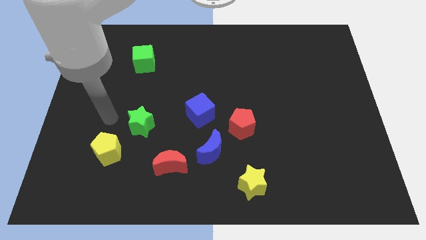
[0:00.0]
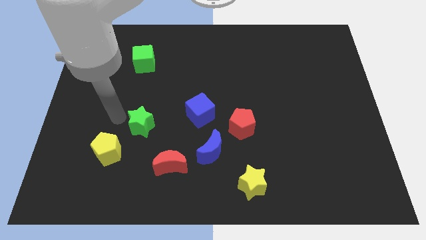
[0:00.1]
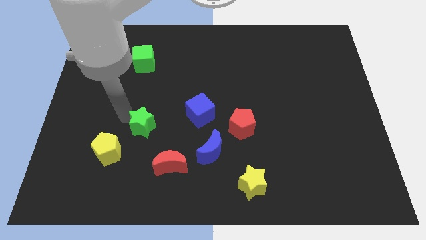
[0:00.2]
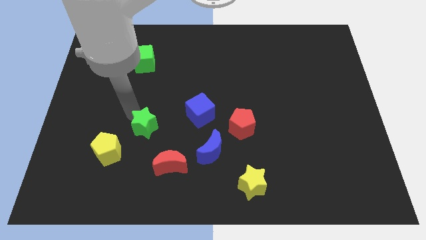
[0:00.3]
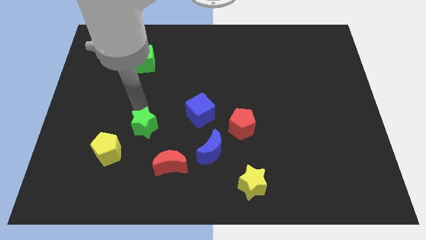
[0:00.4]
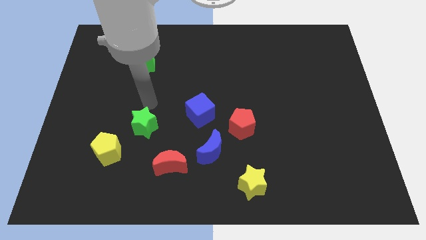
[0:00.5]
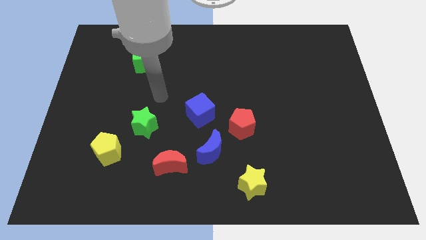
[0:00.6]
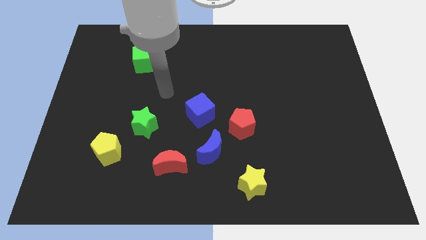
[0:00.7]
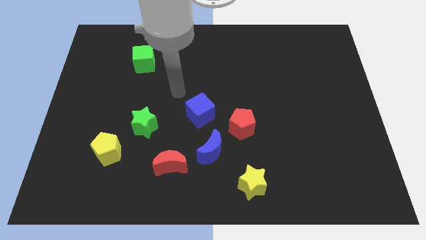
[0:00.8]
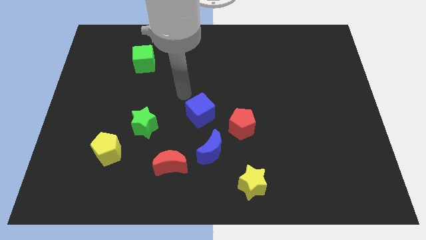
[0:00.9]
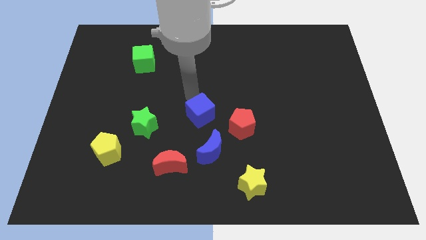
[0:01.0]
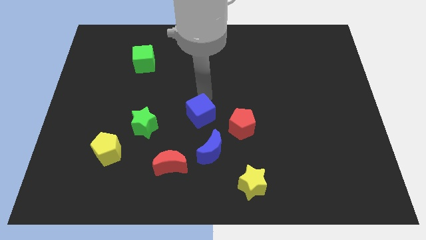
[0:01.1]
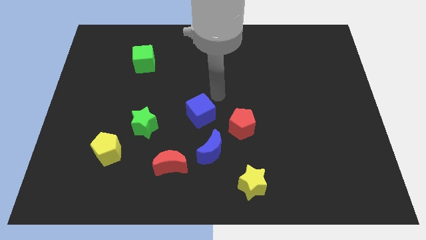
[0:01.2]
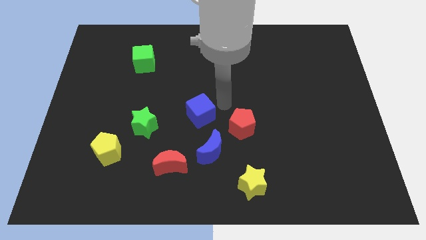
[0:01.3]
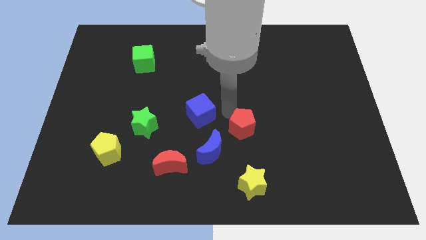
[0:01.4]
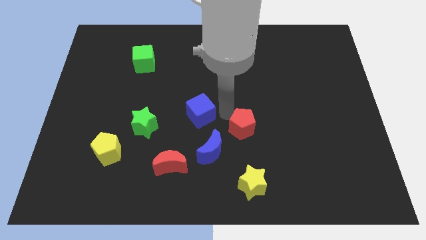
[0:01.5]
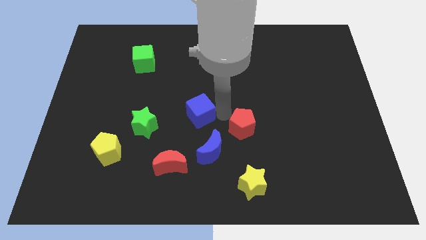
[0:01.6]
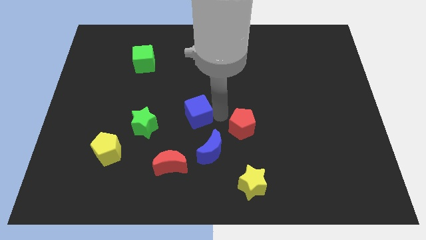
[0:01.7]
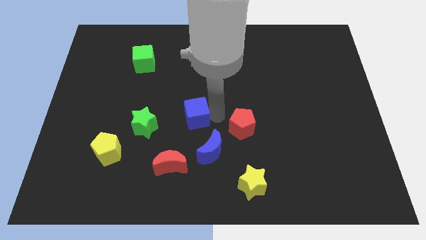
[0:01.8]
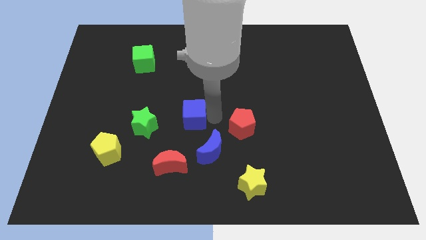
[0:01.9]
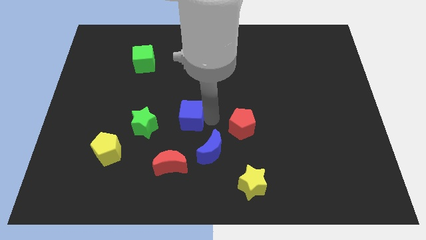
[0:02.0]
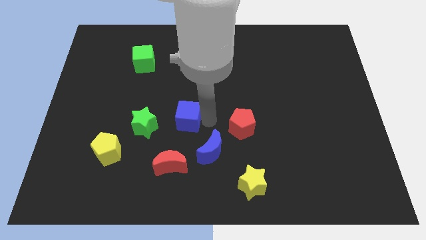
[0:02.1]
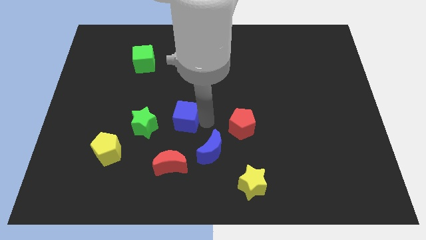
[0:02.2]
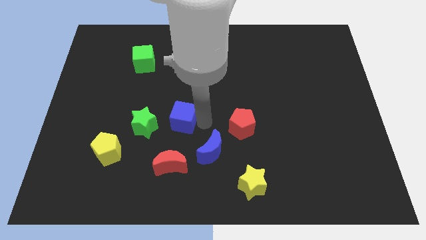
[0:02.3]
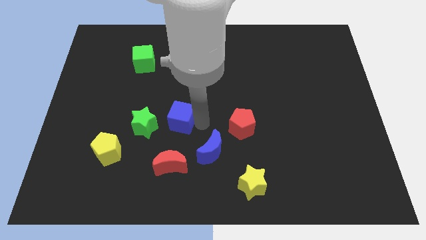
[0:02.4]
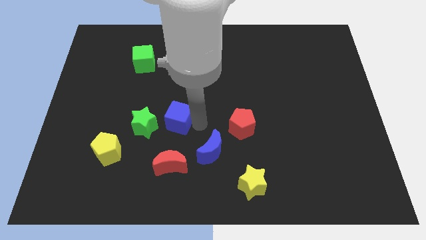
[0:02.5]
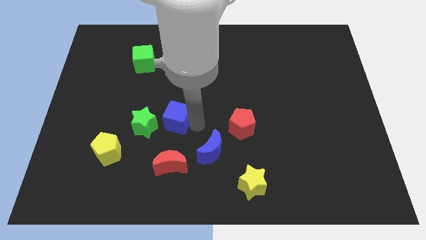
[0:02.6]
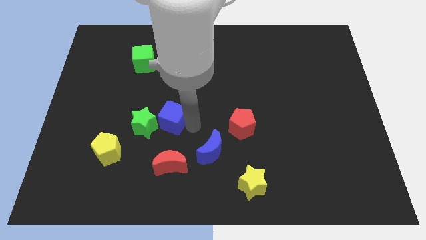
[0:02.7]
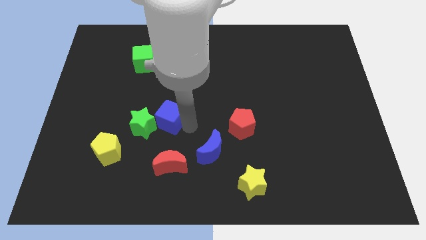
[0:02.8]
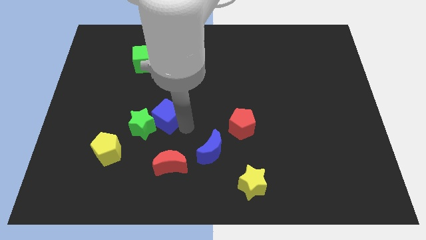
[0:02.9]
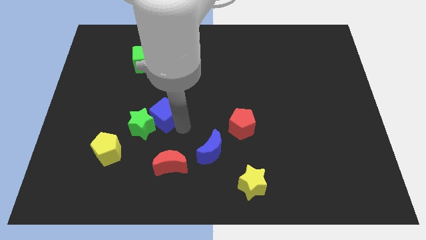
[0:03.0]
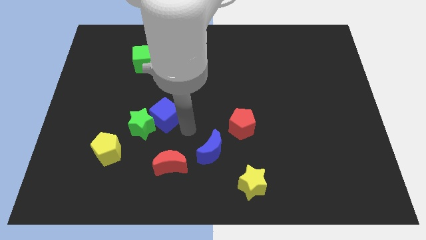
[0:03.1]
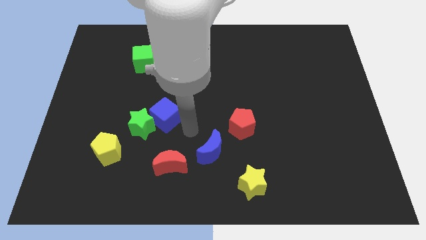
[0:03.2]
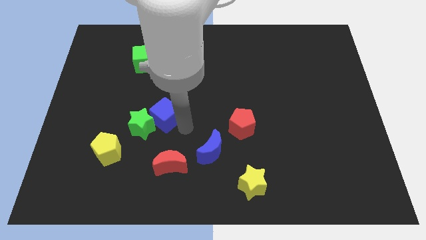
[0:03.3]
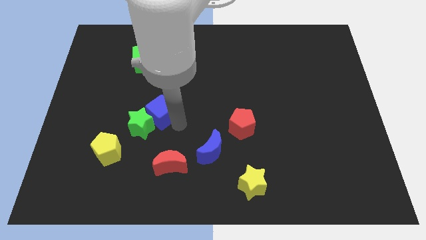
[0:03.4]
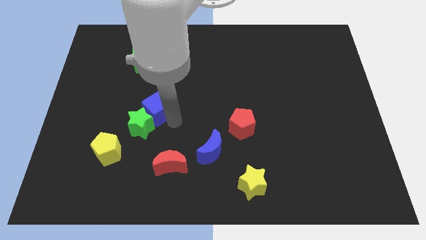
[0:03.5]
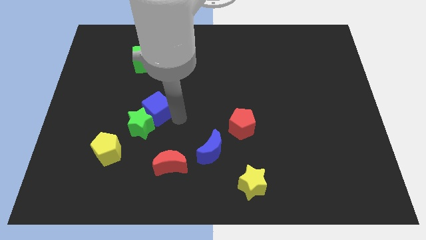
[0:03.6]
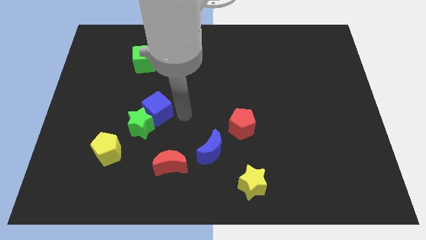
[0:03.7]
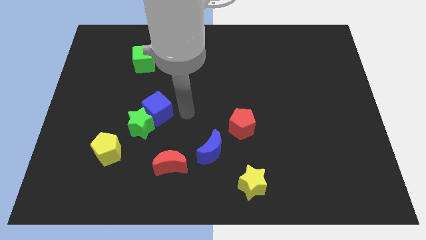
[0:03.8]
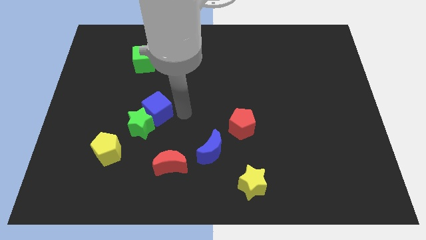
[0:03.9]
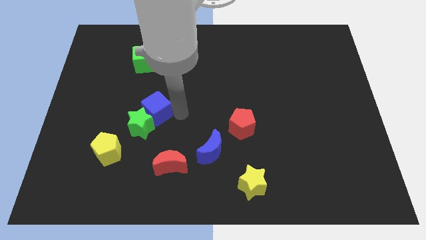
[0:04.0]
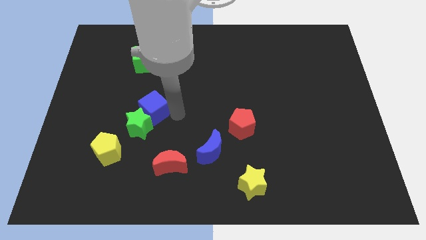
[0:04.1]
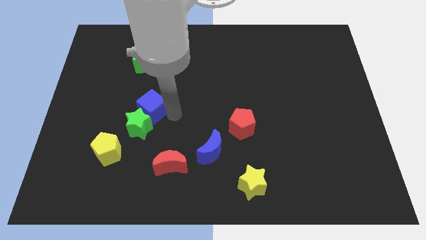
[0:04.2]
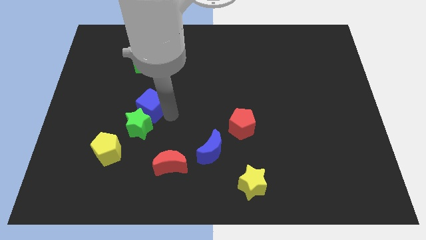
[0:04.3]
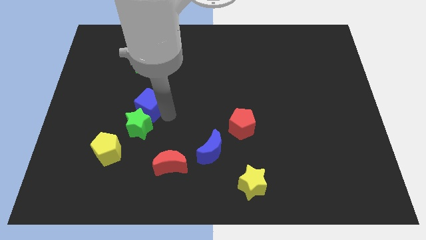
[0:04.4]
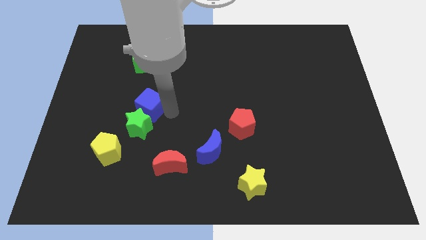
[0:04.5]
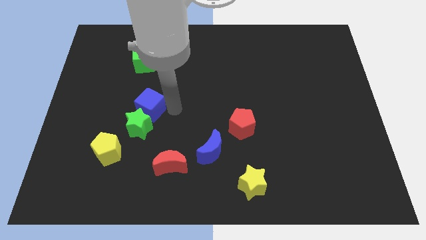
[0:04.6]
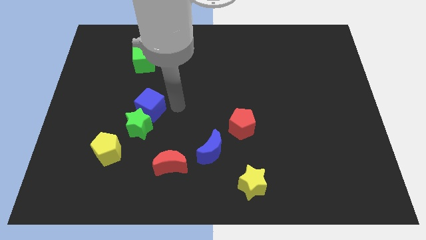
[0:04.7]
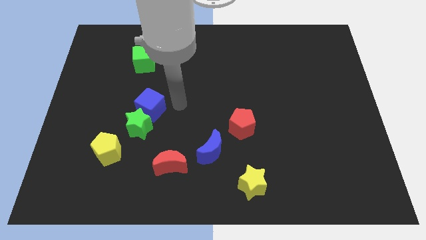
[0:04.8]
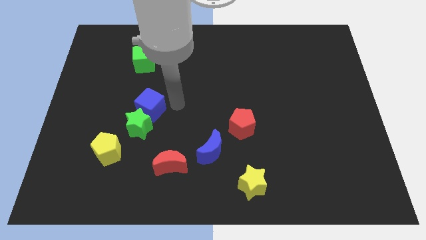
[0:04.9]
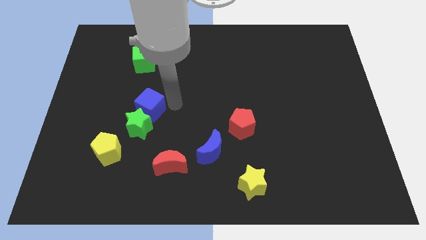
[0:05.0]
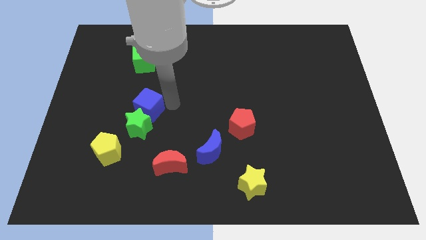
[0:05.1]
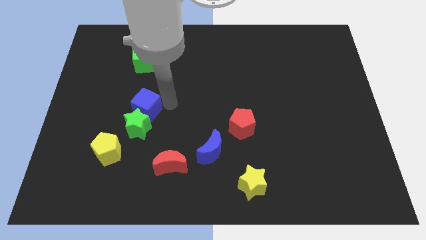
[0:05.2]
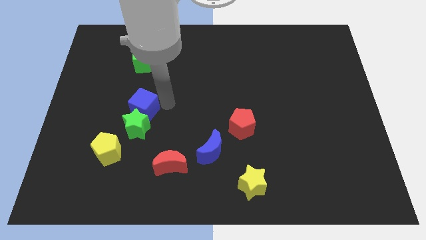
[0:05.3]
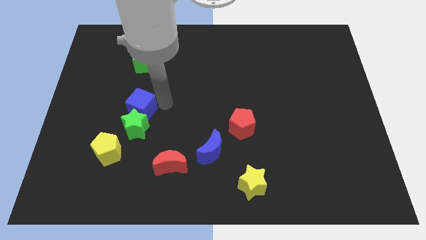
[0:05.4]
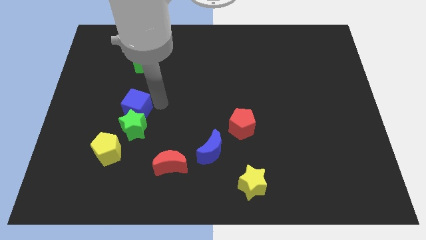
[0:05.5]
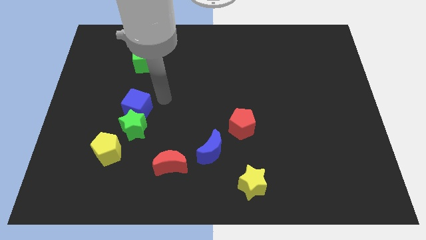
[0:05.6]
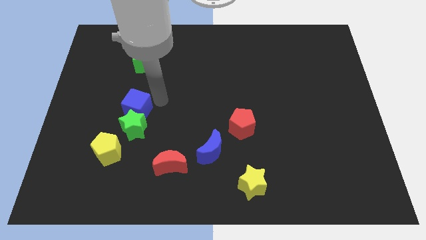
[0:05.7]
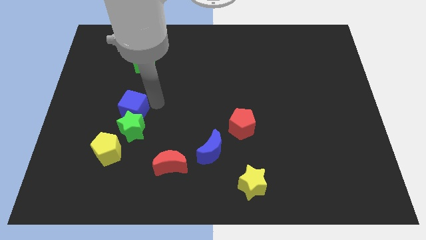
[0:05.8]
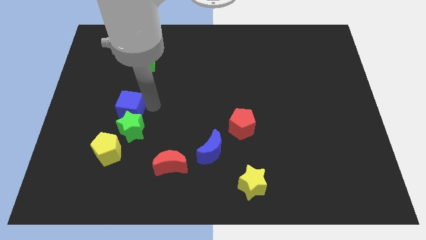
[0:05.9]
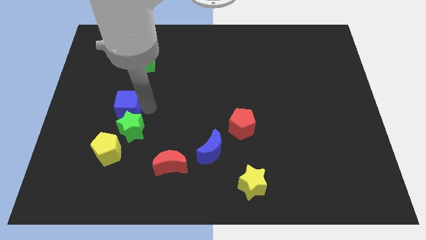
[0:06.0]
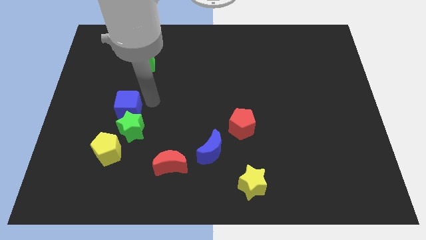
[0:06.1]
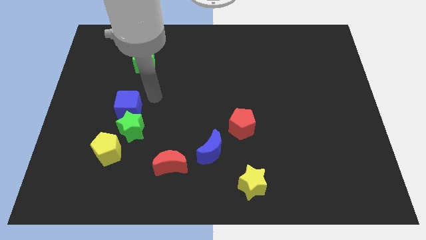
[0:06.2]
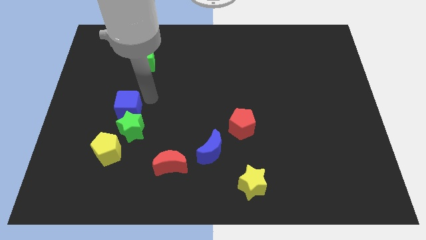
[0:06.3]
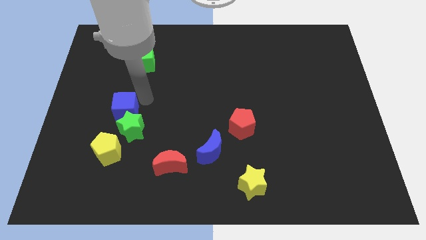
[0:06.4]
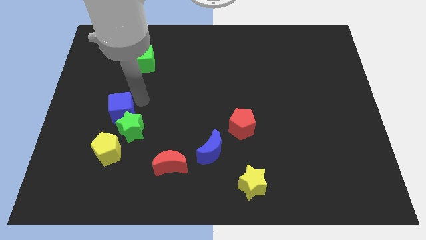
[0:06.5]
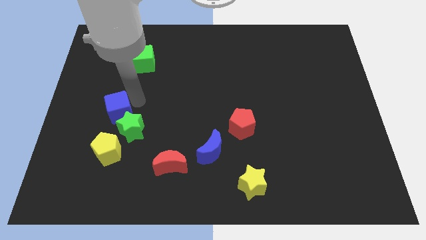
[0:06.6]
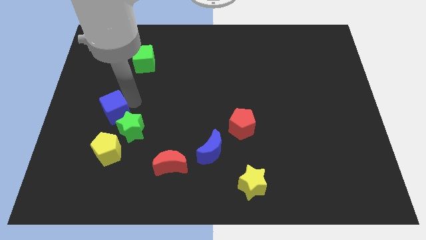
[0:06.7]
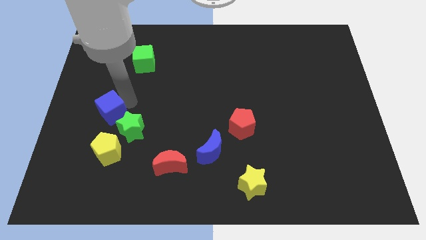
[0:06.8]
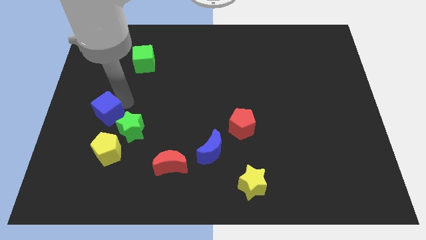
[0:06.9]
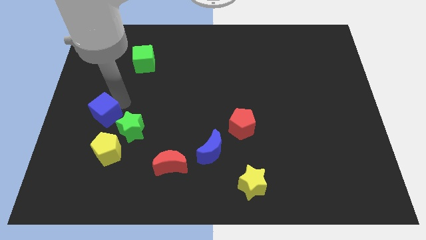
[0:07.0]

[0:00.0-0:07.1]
put the blue cube to the left of the green star

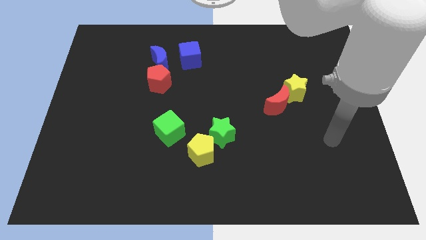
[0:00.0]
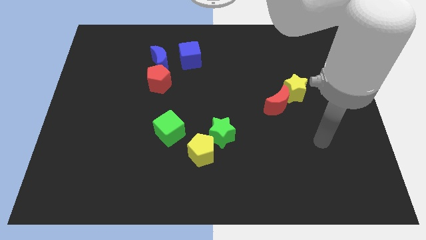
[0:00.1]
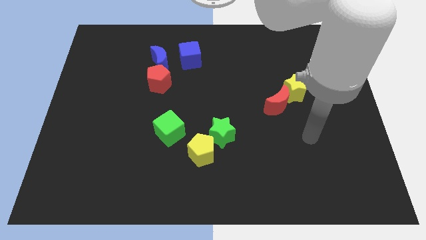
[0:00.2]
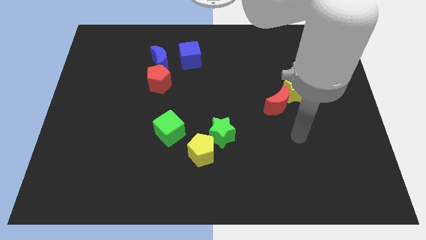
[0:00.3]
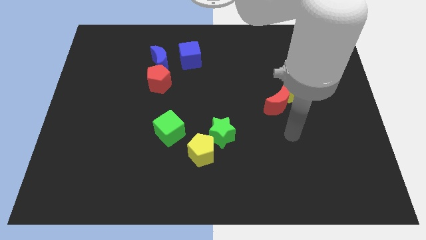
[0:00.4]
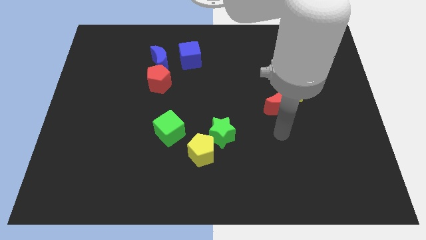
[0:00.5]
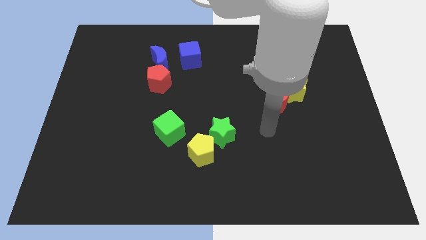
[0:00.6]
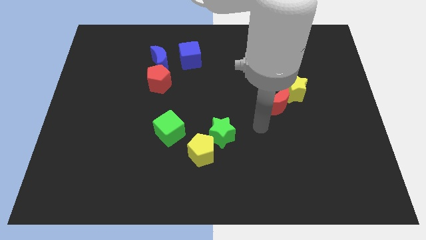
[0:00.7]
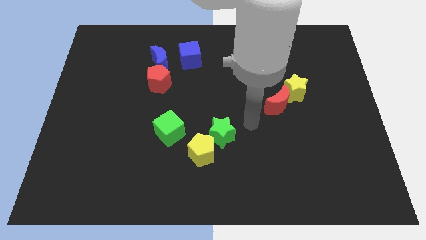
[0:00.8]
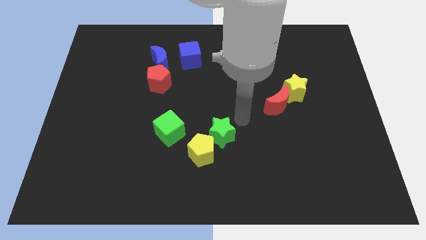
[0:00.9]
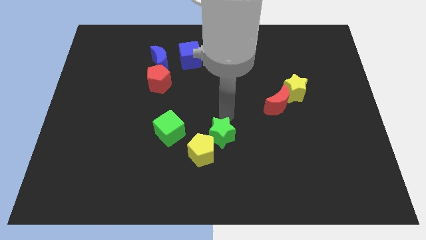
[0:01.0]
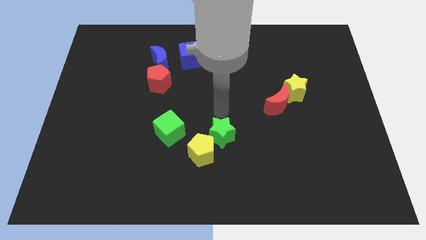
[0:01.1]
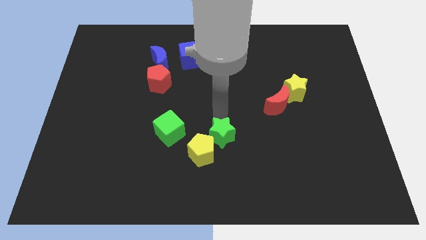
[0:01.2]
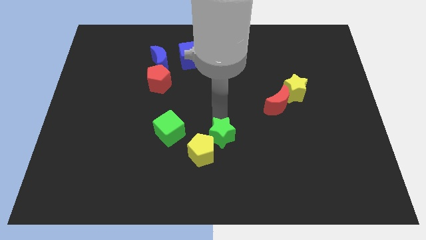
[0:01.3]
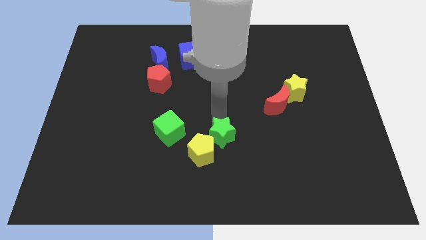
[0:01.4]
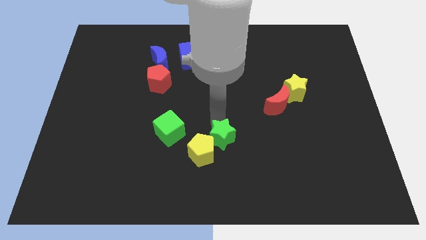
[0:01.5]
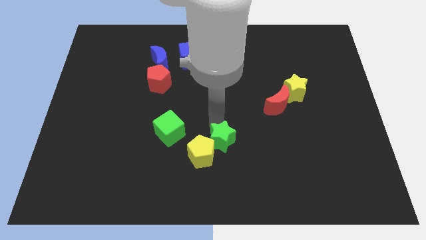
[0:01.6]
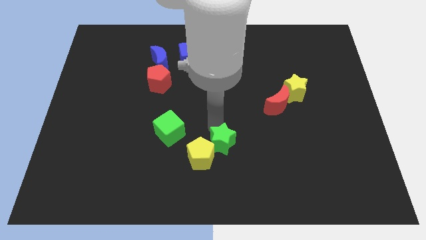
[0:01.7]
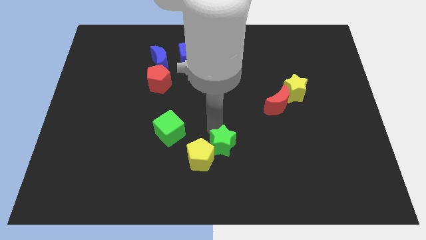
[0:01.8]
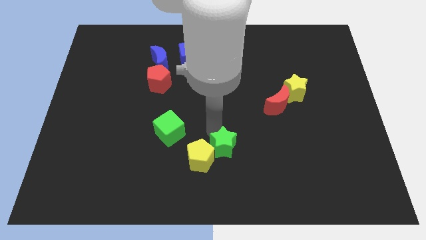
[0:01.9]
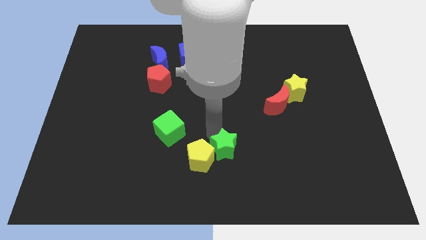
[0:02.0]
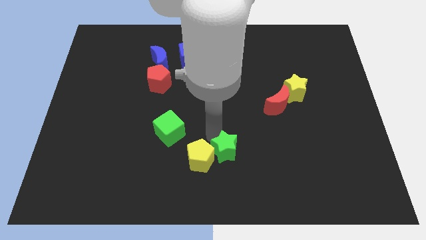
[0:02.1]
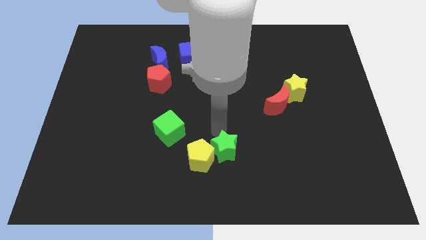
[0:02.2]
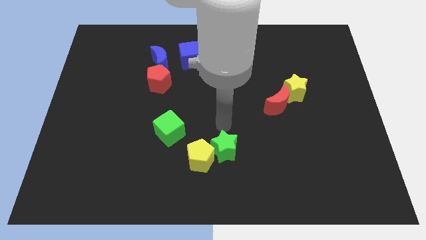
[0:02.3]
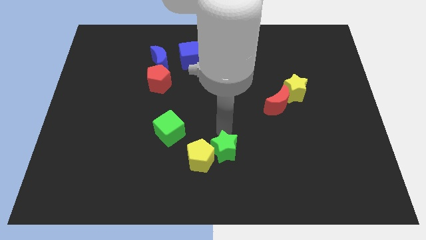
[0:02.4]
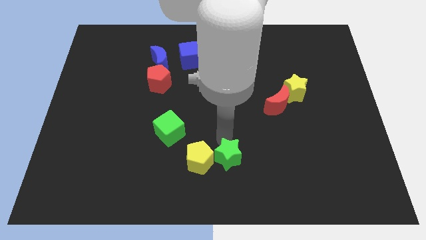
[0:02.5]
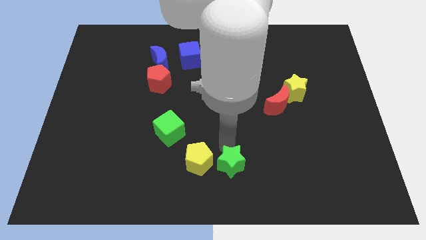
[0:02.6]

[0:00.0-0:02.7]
move the green star to the bottom right of the yellow pentagon
